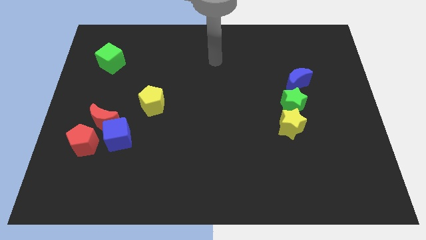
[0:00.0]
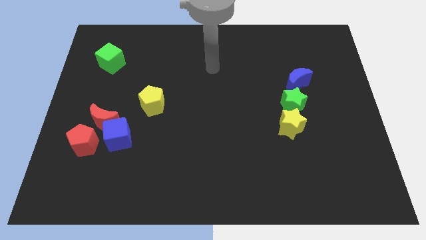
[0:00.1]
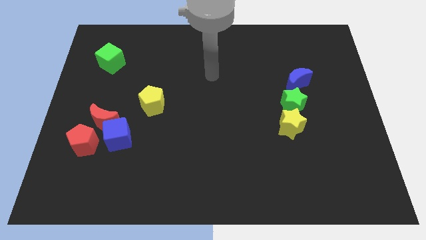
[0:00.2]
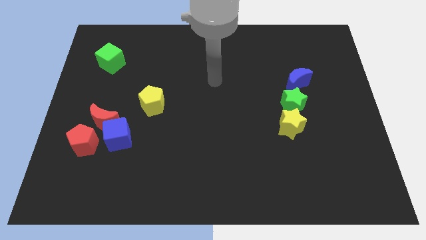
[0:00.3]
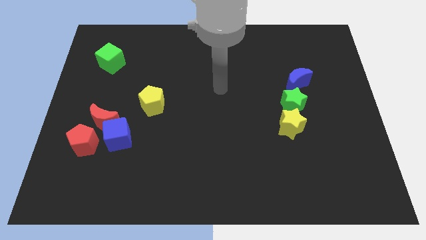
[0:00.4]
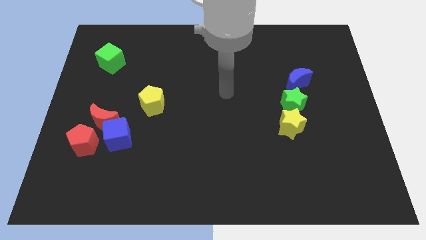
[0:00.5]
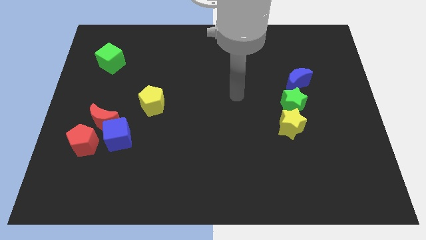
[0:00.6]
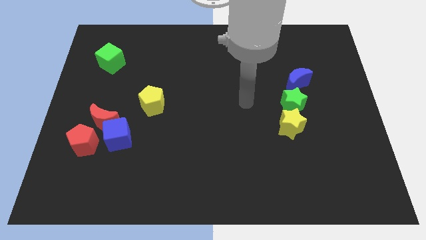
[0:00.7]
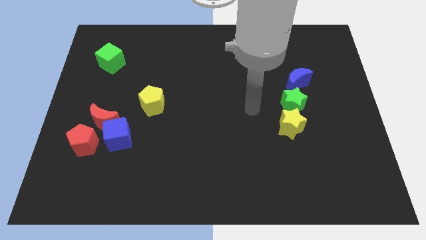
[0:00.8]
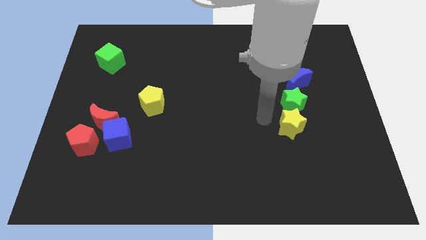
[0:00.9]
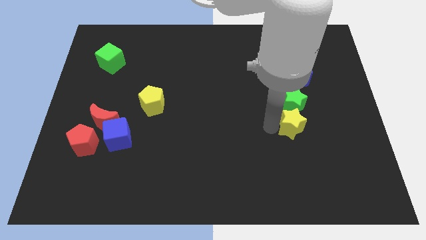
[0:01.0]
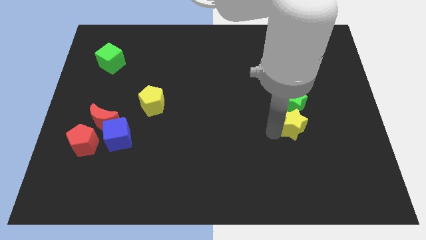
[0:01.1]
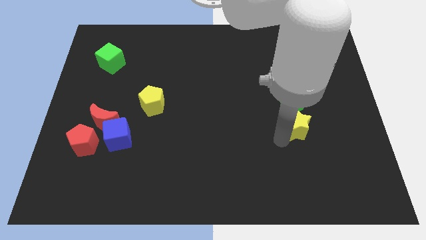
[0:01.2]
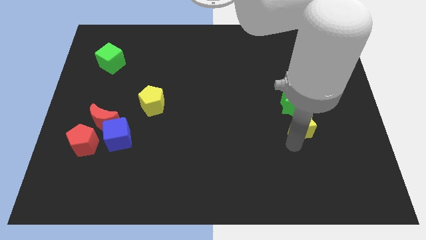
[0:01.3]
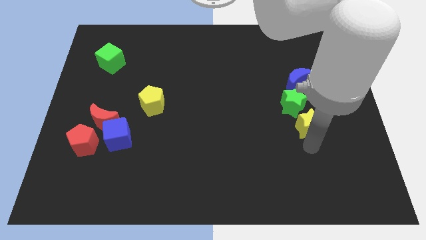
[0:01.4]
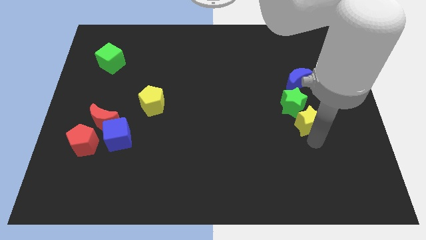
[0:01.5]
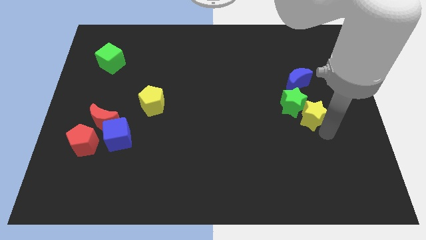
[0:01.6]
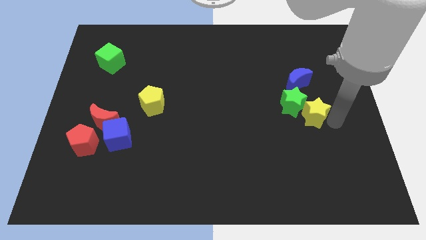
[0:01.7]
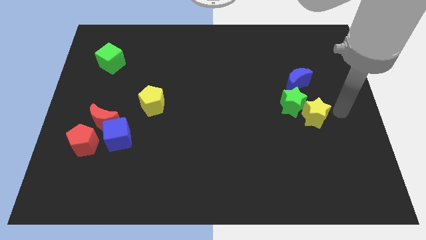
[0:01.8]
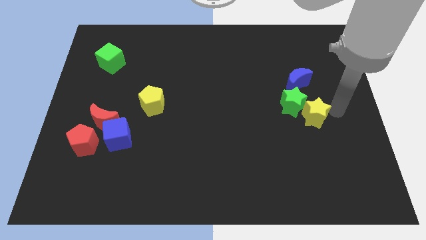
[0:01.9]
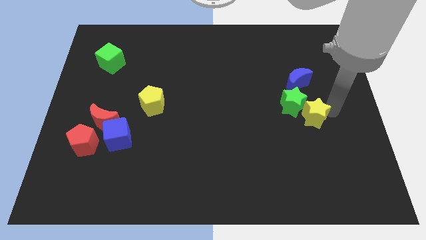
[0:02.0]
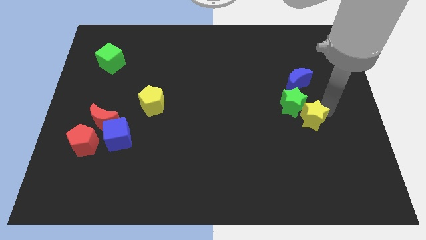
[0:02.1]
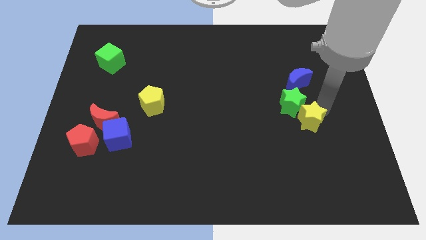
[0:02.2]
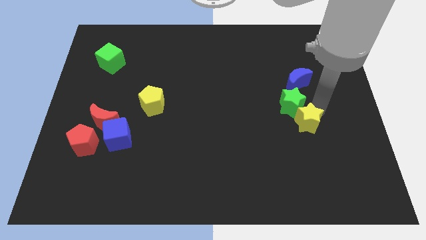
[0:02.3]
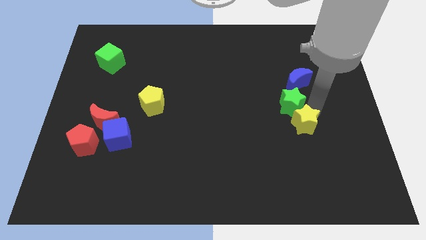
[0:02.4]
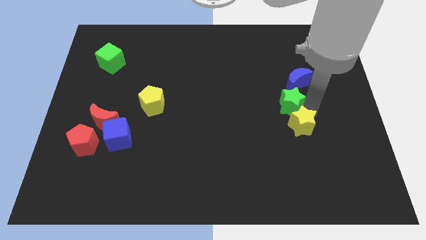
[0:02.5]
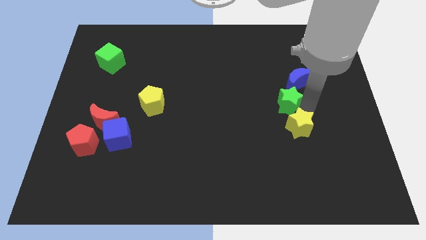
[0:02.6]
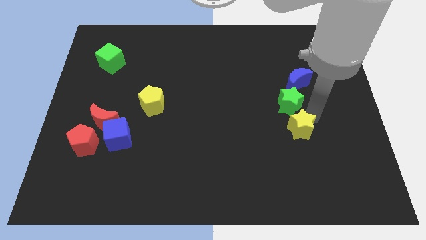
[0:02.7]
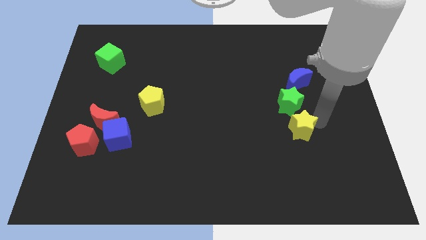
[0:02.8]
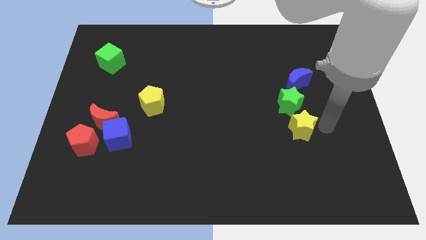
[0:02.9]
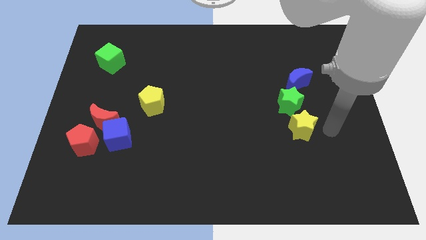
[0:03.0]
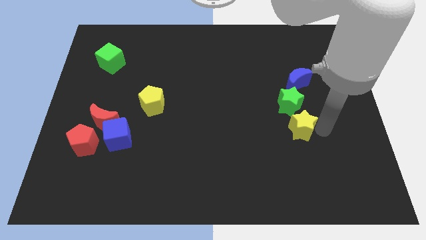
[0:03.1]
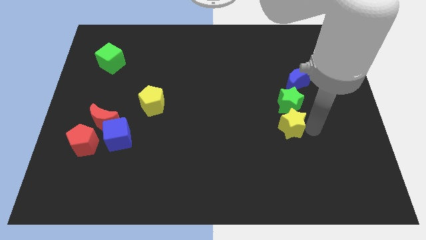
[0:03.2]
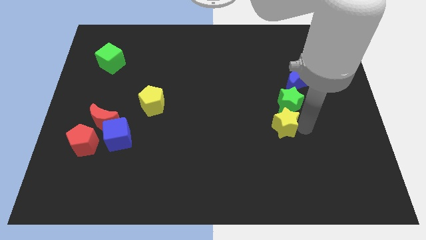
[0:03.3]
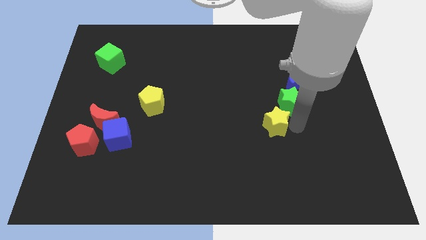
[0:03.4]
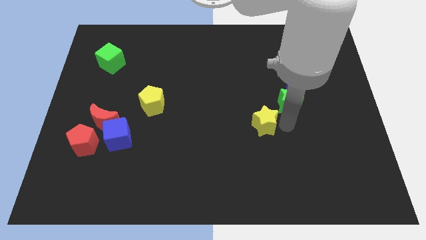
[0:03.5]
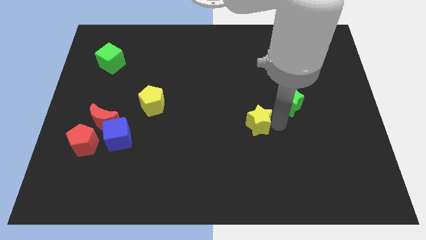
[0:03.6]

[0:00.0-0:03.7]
slightly move the yellow star left

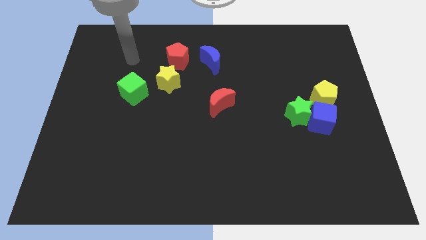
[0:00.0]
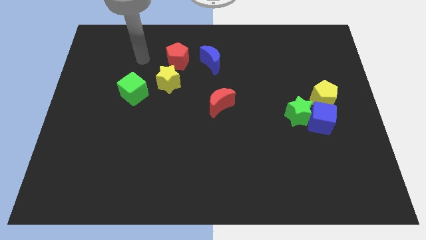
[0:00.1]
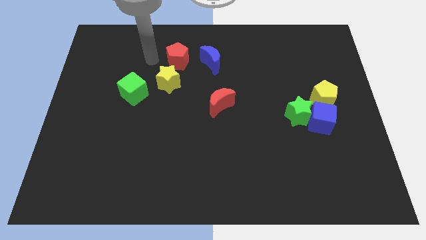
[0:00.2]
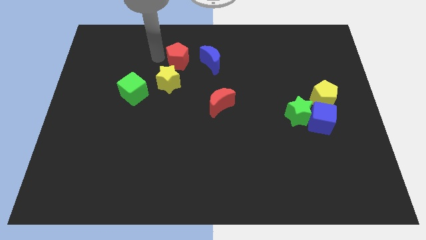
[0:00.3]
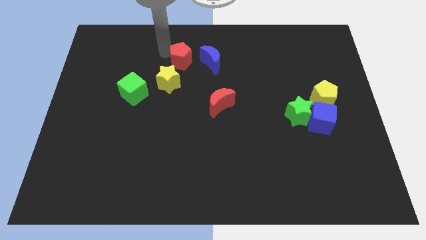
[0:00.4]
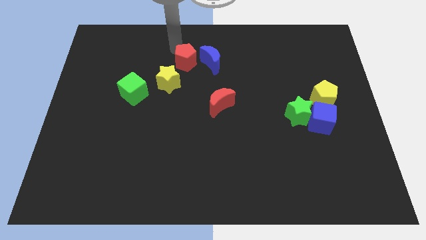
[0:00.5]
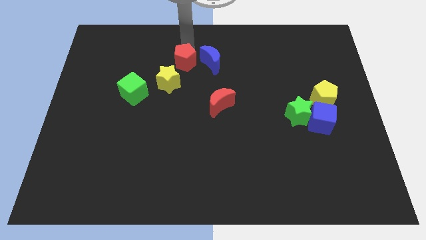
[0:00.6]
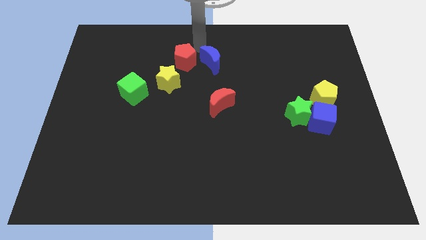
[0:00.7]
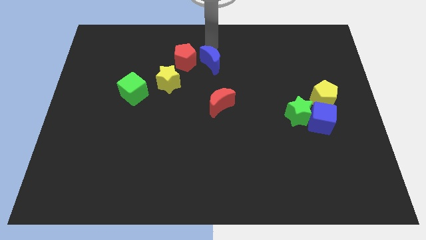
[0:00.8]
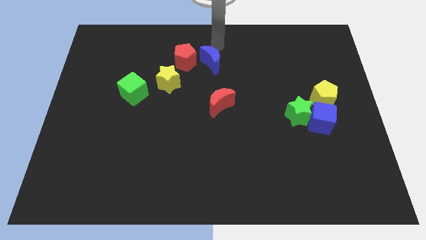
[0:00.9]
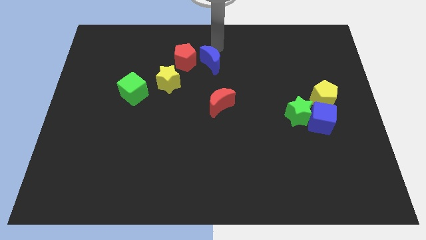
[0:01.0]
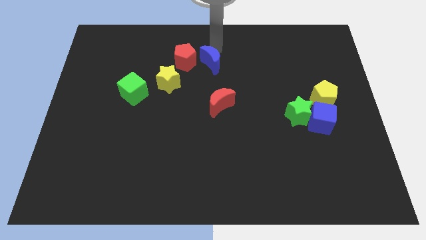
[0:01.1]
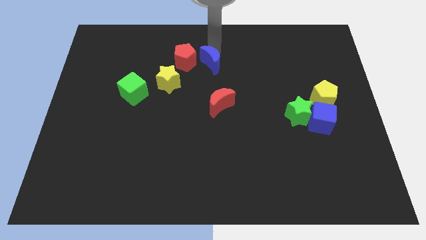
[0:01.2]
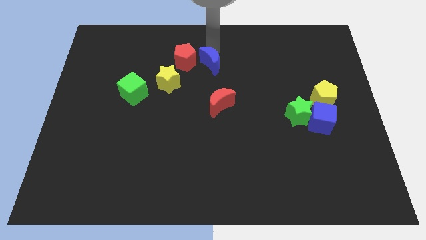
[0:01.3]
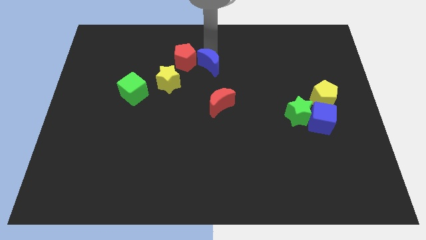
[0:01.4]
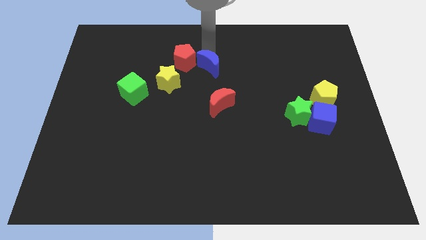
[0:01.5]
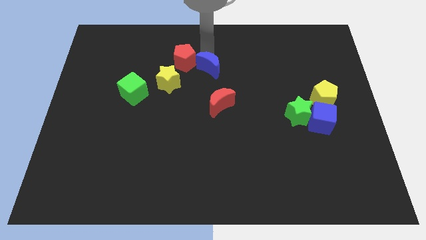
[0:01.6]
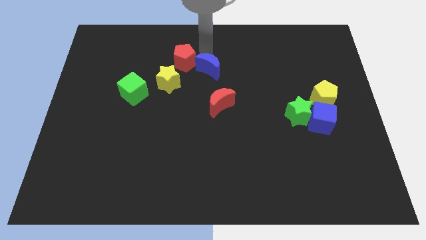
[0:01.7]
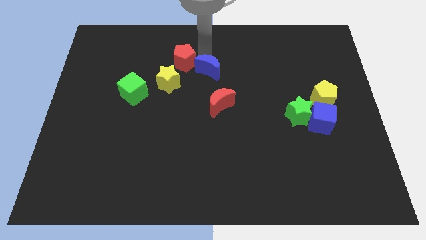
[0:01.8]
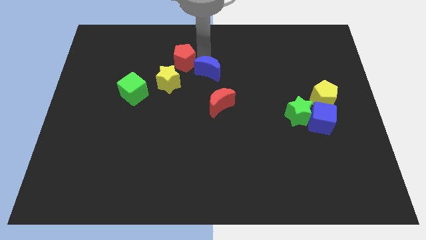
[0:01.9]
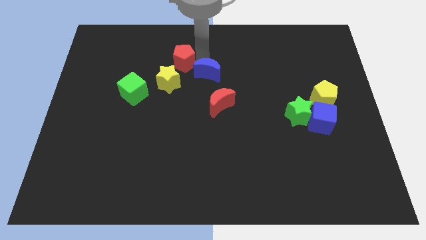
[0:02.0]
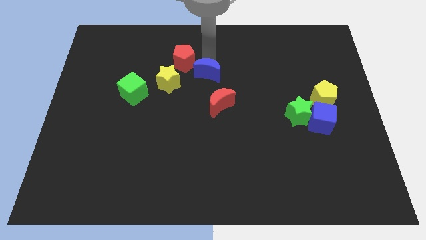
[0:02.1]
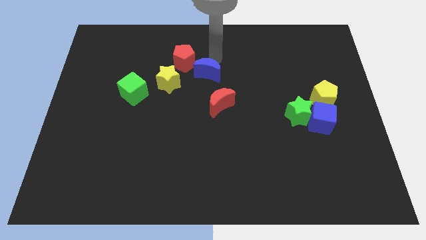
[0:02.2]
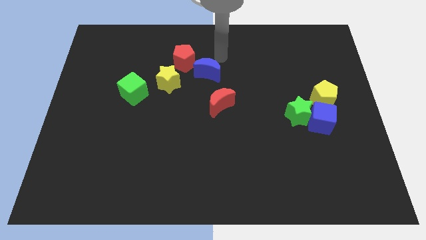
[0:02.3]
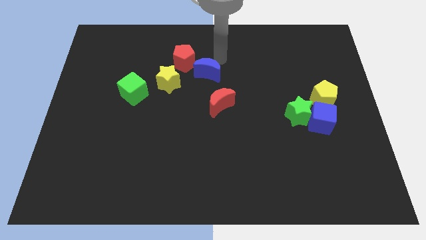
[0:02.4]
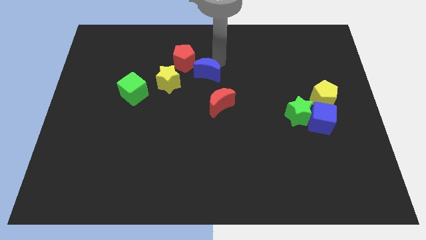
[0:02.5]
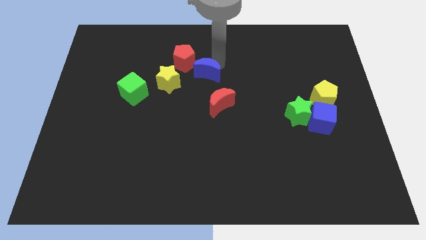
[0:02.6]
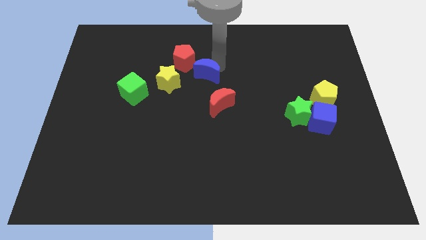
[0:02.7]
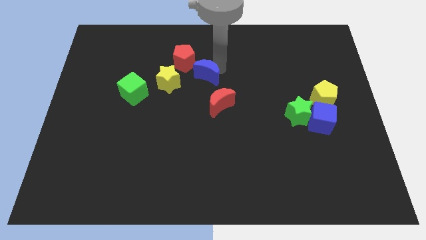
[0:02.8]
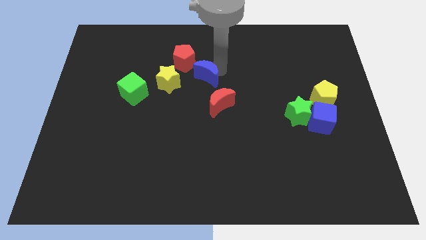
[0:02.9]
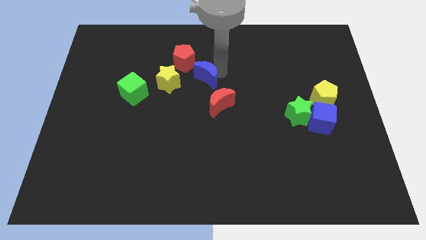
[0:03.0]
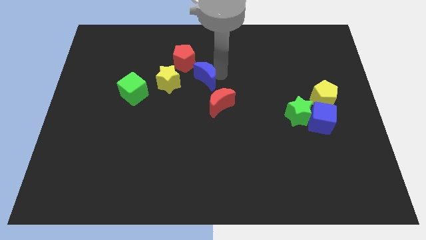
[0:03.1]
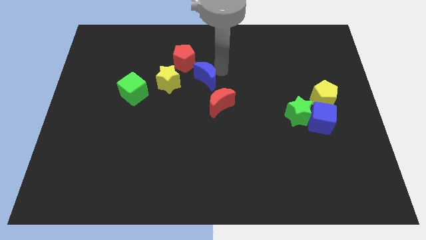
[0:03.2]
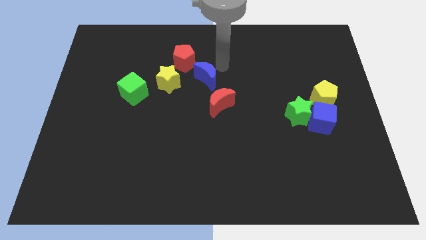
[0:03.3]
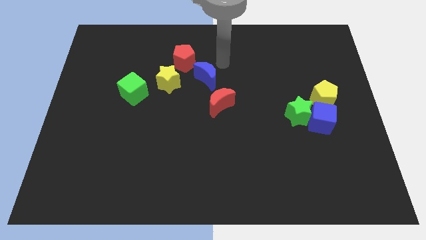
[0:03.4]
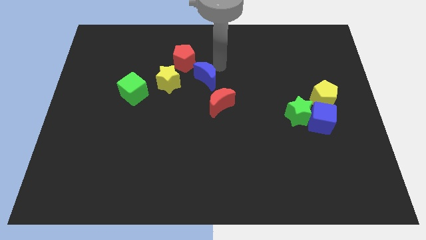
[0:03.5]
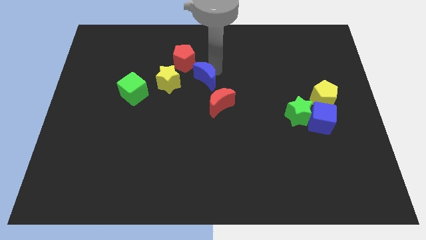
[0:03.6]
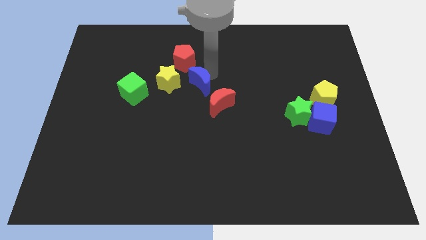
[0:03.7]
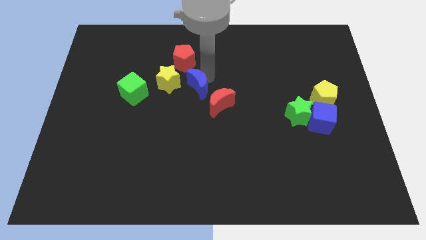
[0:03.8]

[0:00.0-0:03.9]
move the blue moon down and to the left a little

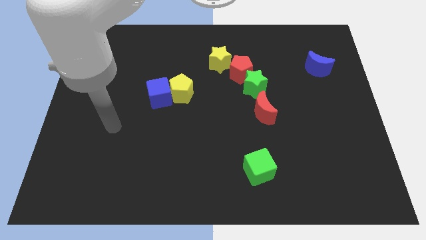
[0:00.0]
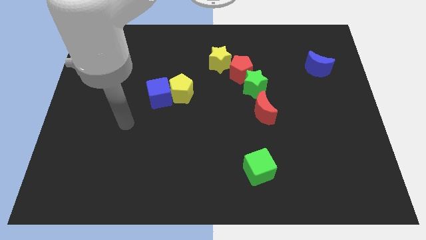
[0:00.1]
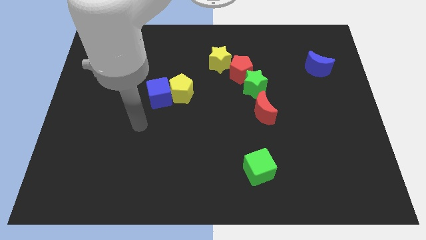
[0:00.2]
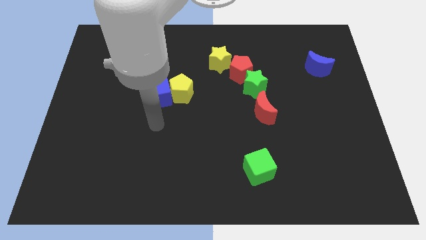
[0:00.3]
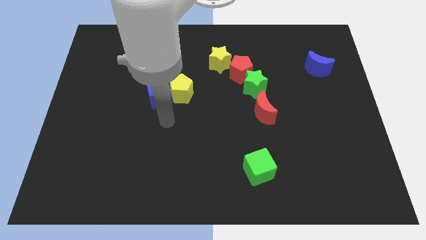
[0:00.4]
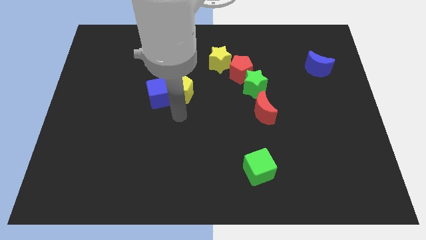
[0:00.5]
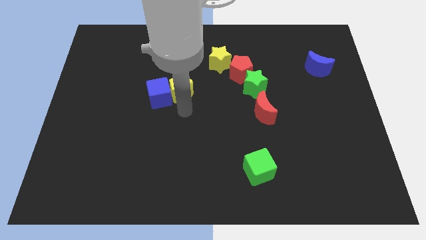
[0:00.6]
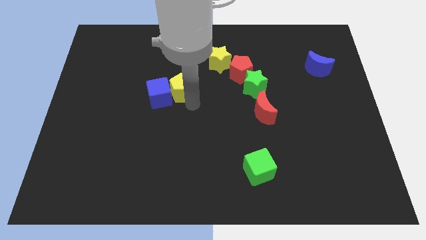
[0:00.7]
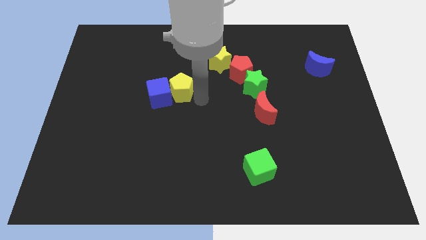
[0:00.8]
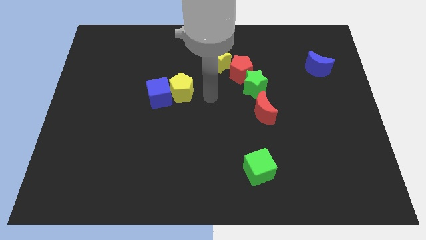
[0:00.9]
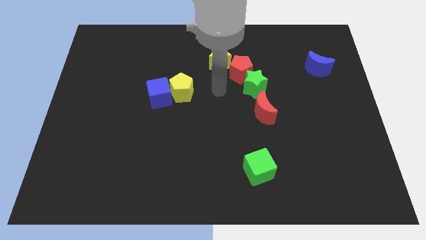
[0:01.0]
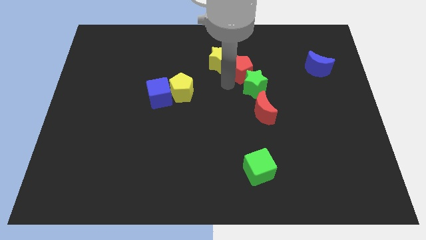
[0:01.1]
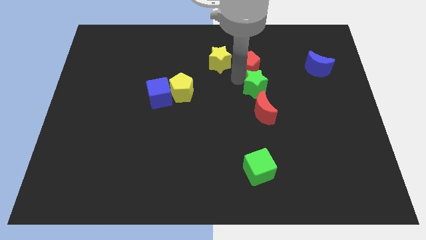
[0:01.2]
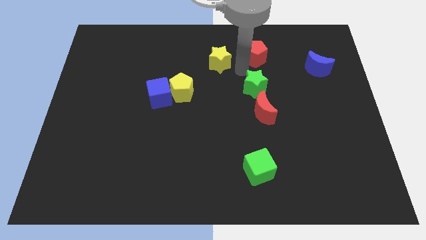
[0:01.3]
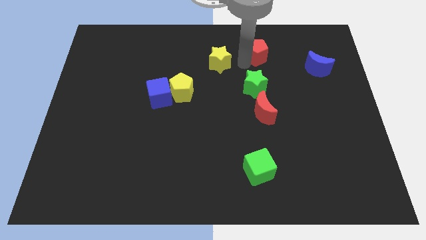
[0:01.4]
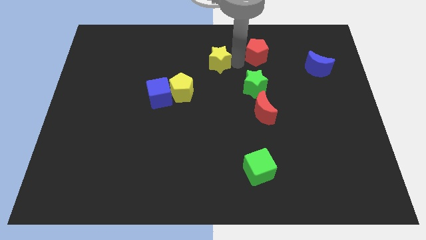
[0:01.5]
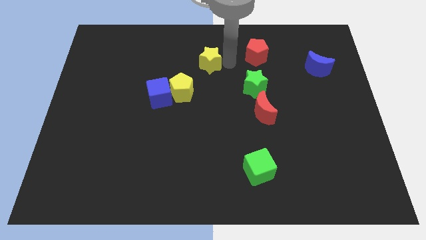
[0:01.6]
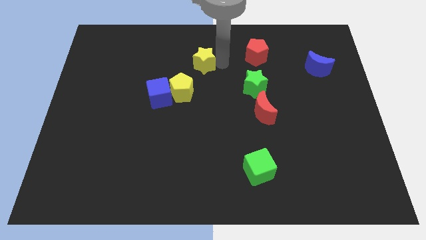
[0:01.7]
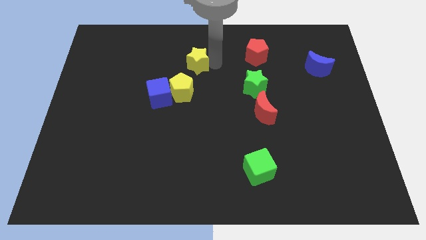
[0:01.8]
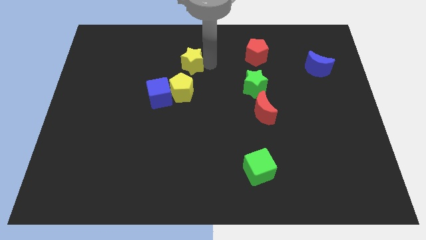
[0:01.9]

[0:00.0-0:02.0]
slightly push the yellow star to the left
